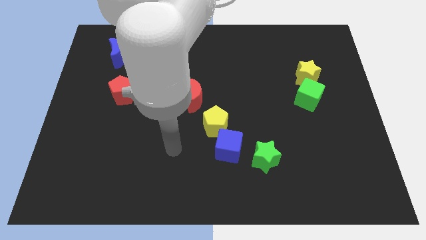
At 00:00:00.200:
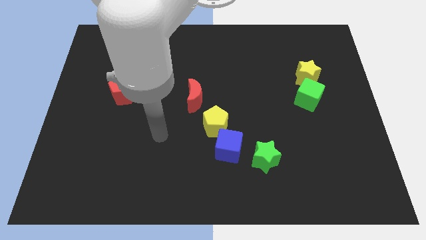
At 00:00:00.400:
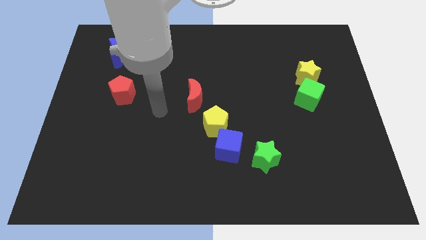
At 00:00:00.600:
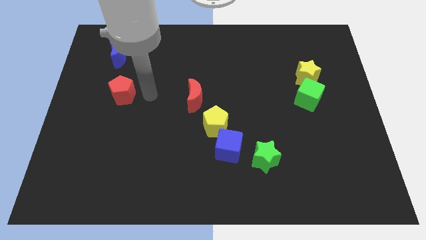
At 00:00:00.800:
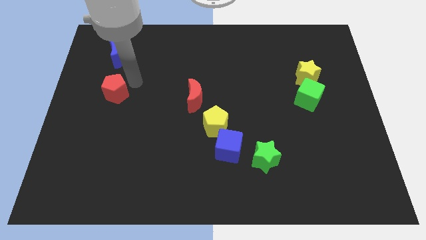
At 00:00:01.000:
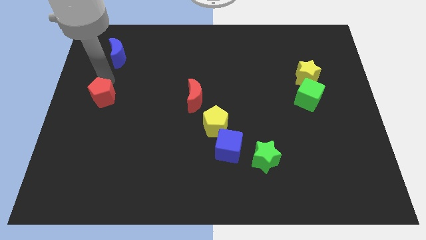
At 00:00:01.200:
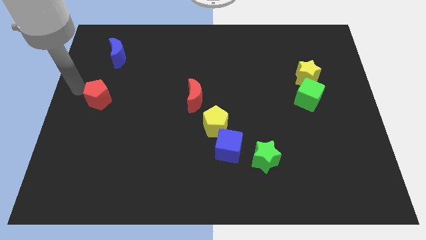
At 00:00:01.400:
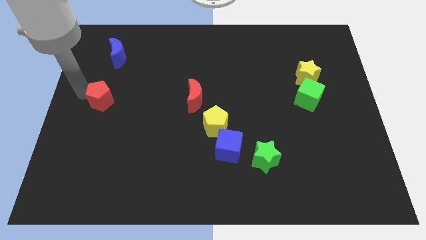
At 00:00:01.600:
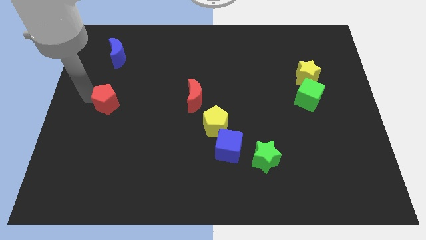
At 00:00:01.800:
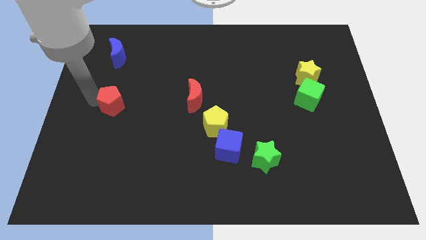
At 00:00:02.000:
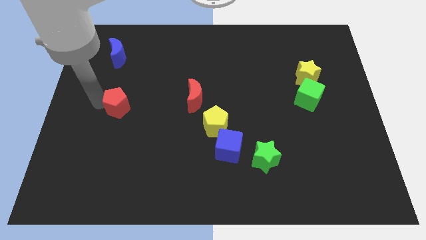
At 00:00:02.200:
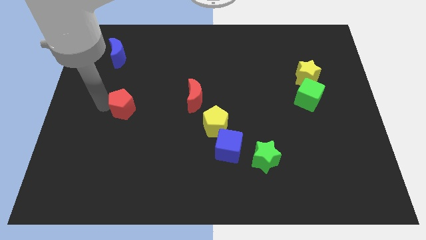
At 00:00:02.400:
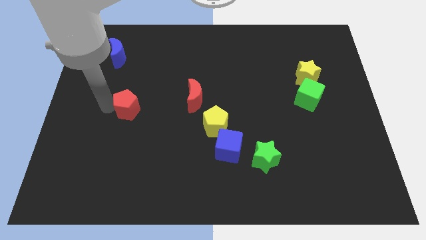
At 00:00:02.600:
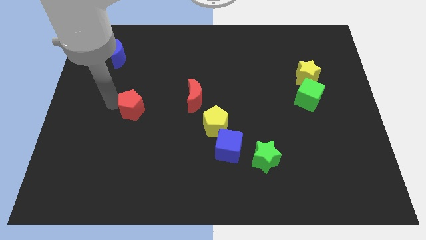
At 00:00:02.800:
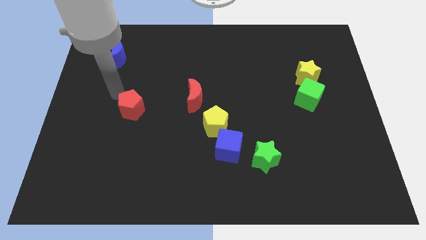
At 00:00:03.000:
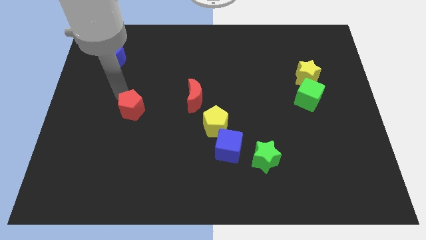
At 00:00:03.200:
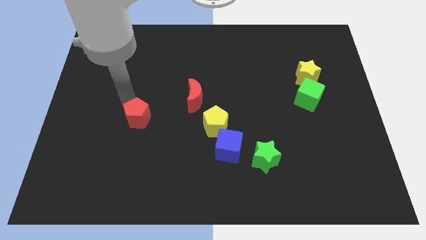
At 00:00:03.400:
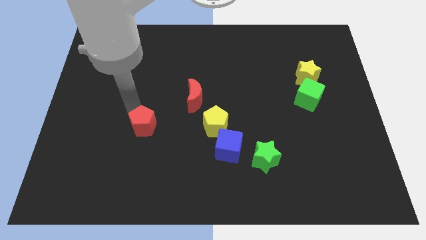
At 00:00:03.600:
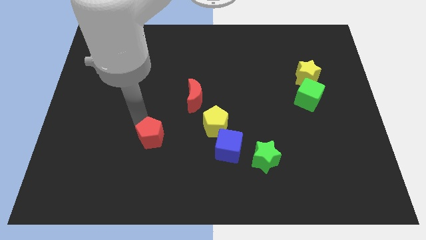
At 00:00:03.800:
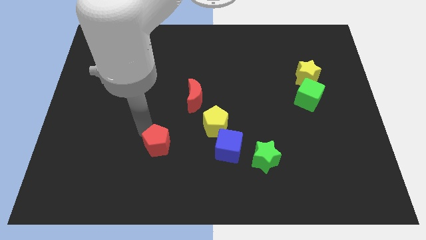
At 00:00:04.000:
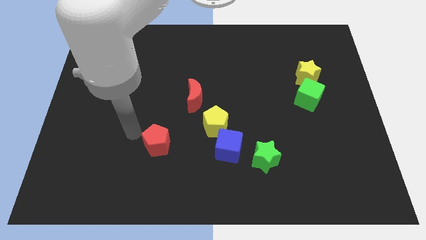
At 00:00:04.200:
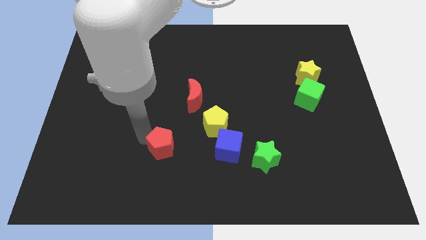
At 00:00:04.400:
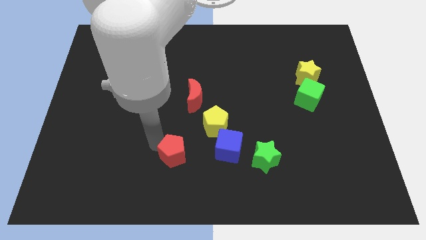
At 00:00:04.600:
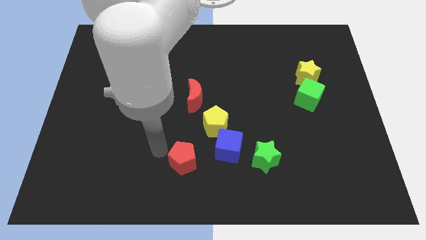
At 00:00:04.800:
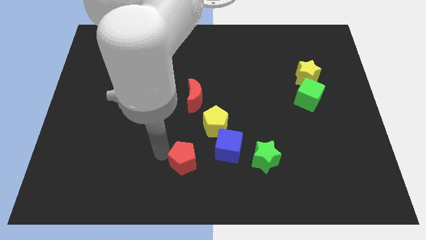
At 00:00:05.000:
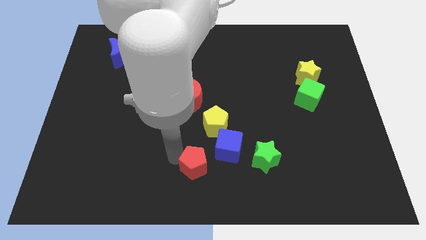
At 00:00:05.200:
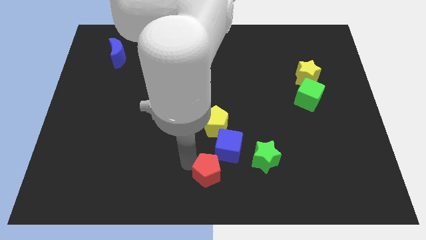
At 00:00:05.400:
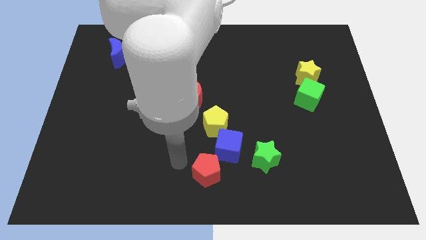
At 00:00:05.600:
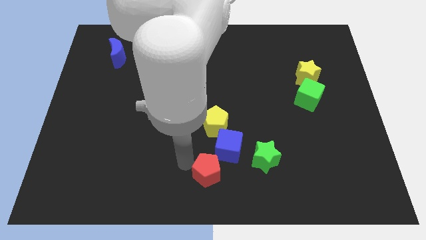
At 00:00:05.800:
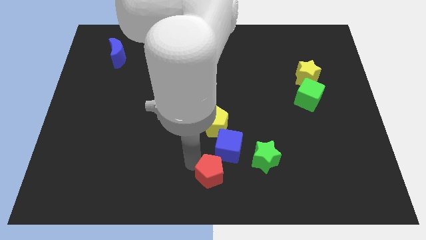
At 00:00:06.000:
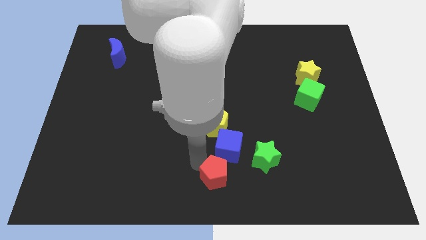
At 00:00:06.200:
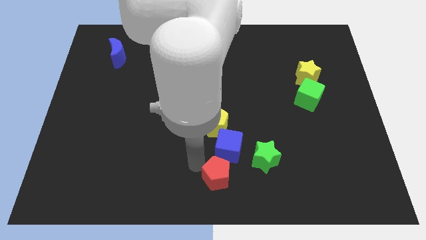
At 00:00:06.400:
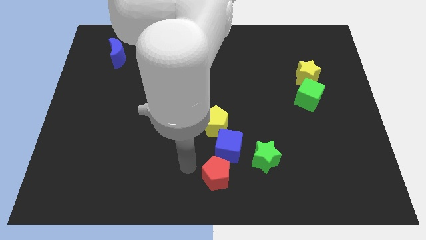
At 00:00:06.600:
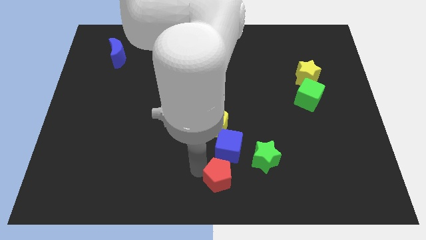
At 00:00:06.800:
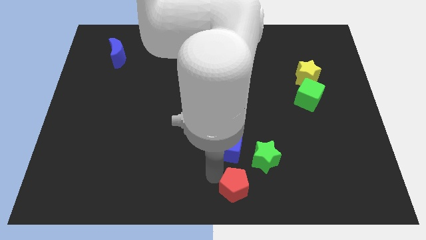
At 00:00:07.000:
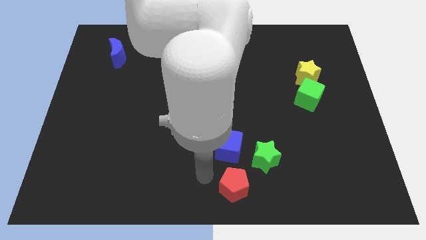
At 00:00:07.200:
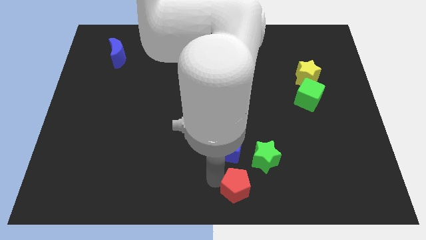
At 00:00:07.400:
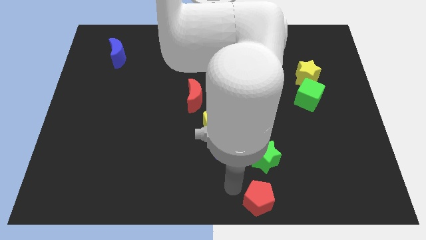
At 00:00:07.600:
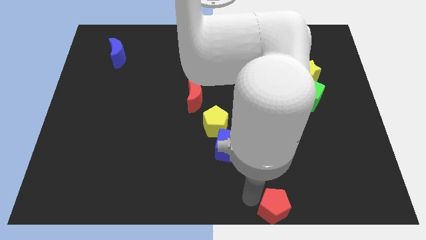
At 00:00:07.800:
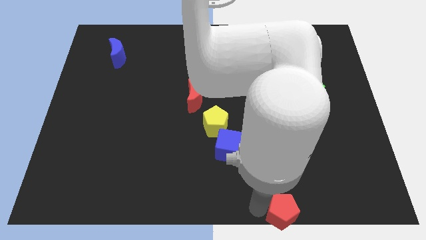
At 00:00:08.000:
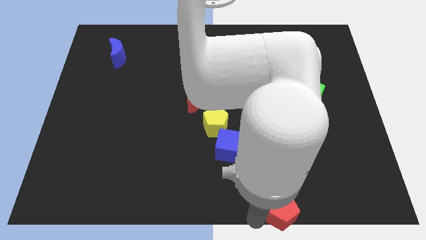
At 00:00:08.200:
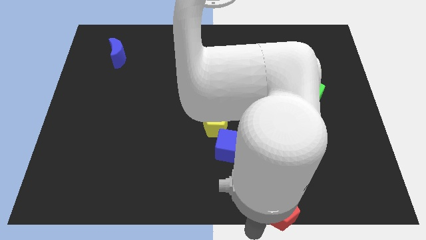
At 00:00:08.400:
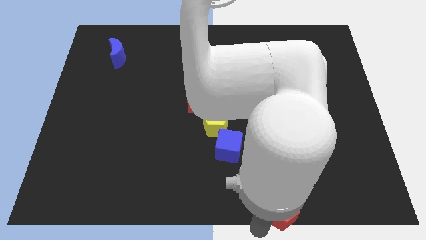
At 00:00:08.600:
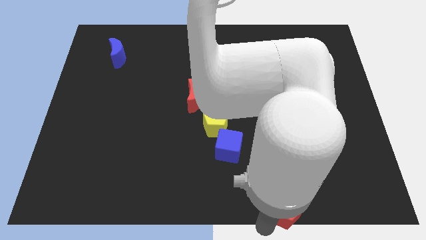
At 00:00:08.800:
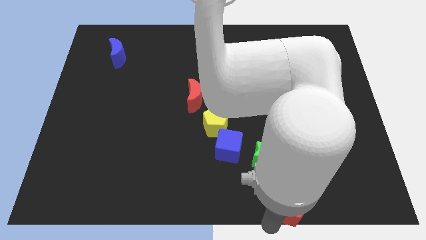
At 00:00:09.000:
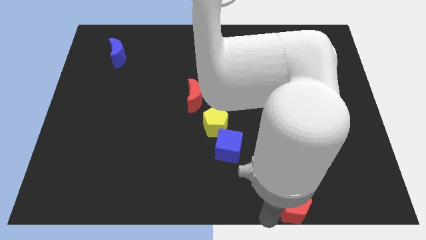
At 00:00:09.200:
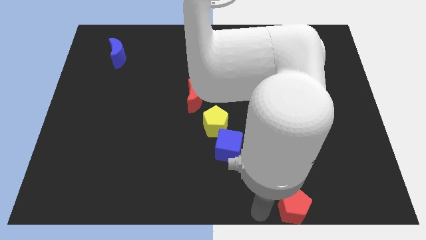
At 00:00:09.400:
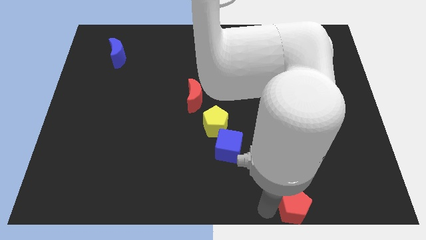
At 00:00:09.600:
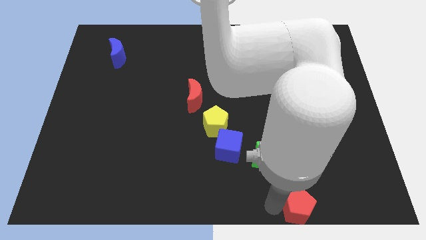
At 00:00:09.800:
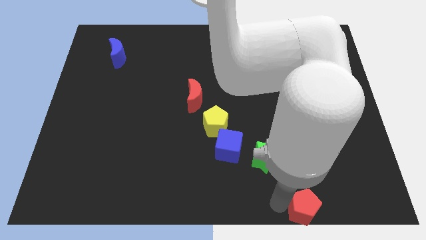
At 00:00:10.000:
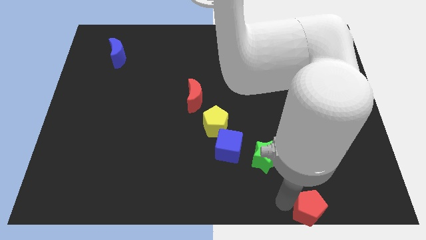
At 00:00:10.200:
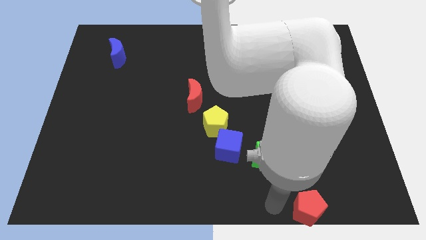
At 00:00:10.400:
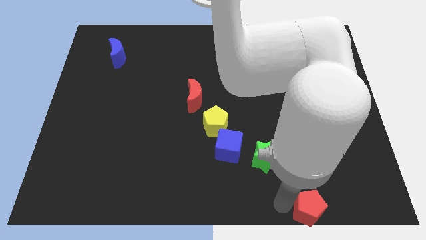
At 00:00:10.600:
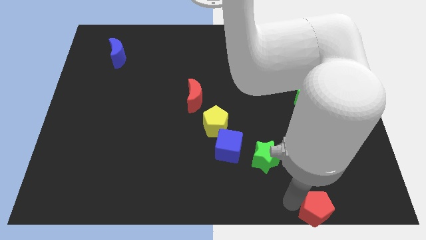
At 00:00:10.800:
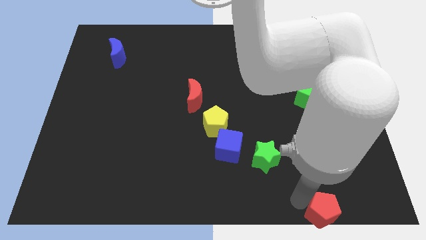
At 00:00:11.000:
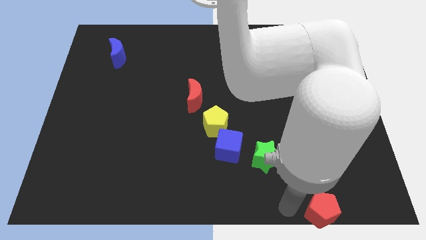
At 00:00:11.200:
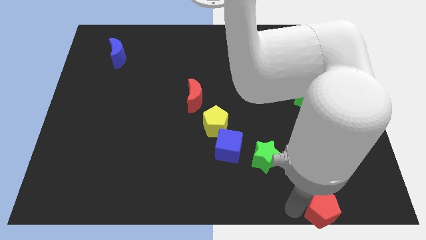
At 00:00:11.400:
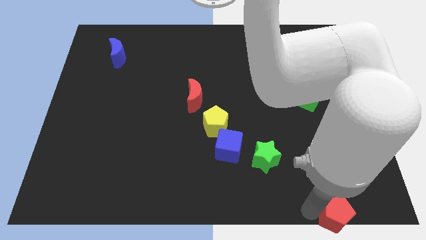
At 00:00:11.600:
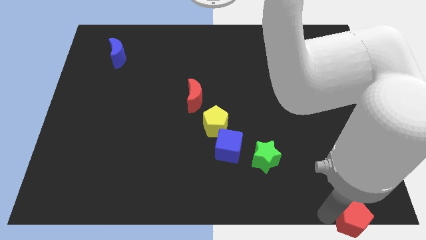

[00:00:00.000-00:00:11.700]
put the red pentagon to the bottom right
